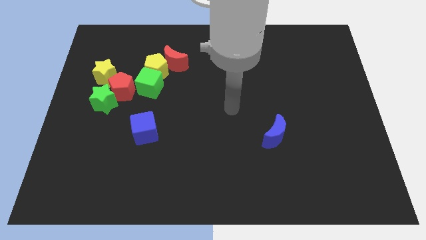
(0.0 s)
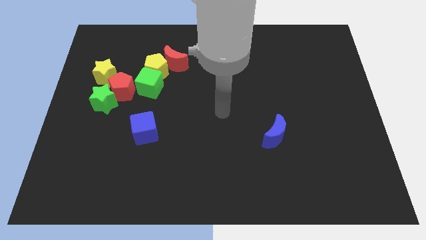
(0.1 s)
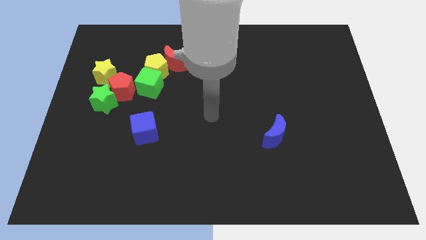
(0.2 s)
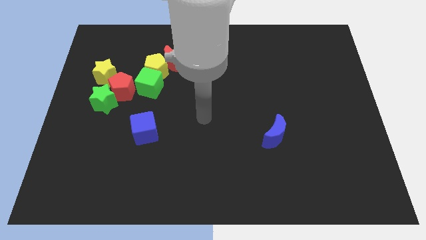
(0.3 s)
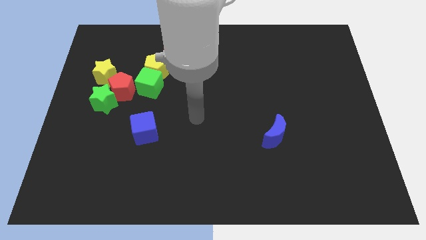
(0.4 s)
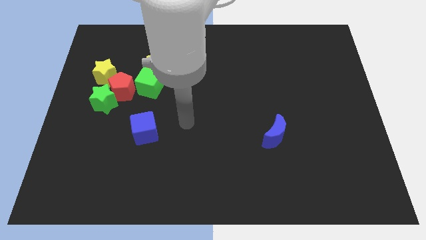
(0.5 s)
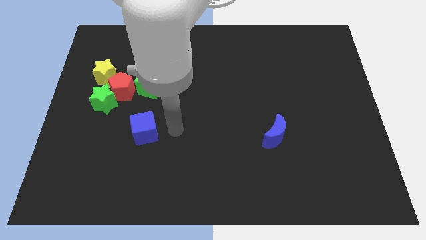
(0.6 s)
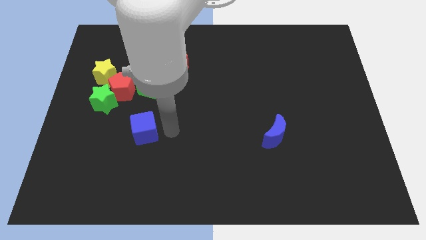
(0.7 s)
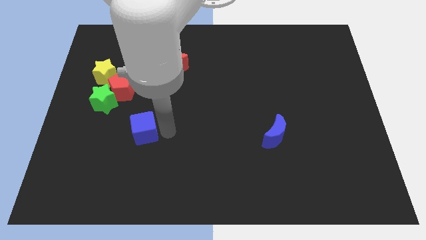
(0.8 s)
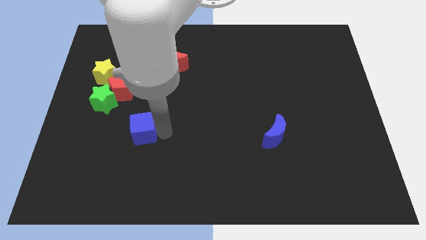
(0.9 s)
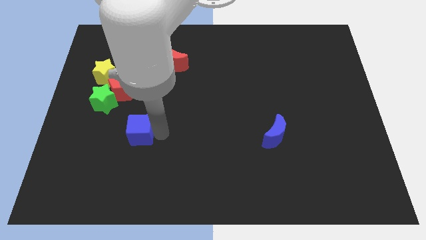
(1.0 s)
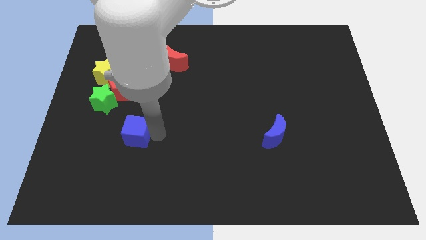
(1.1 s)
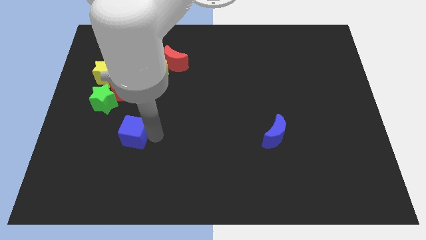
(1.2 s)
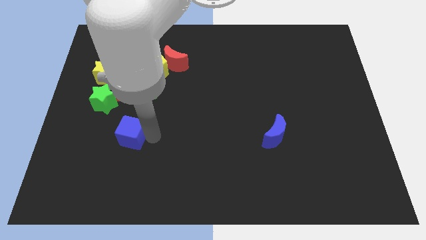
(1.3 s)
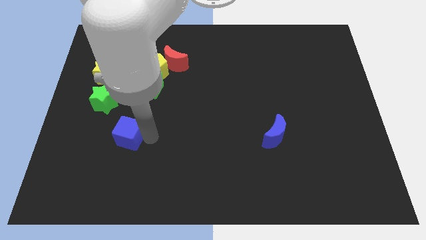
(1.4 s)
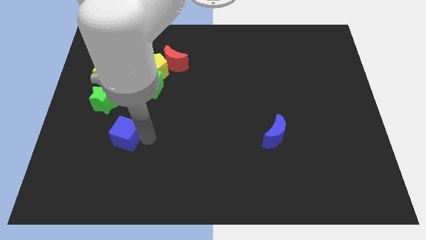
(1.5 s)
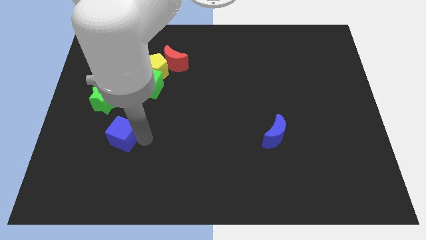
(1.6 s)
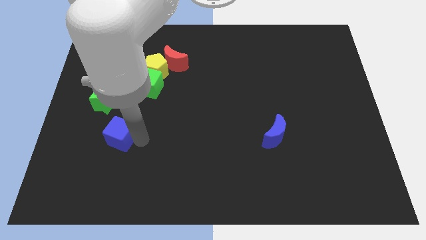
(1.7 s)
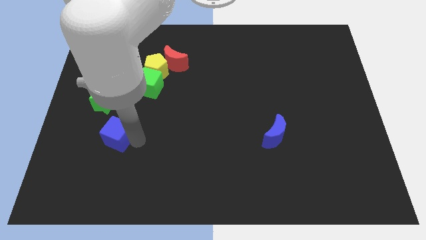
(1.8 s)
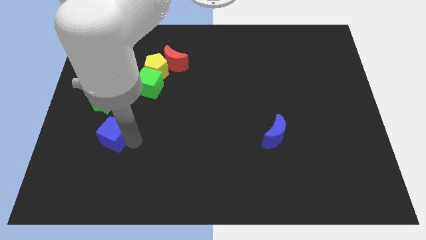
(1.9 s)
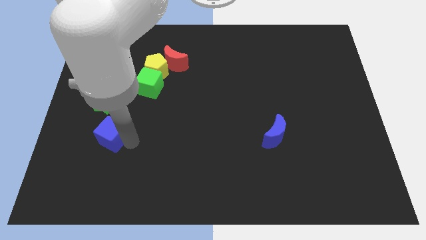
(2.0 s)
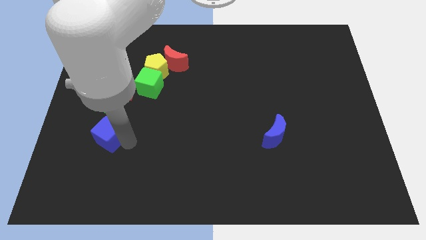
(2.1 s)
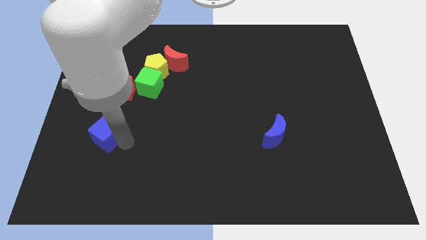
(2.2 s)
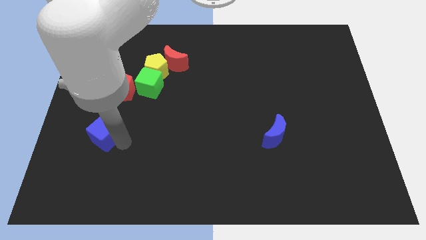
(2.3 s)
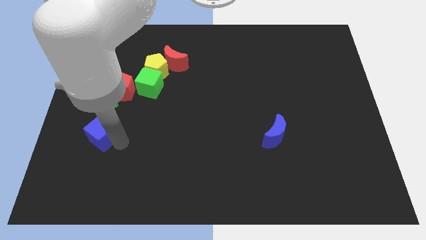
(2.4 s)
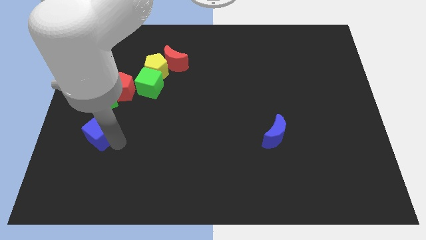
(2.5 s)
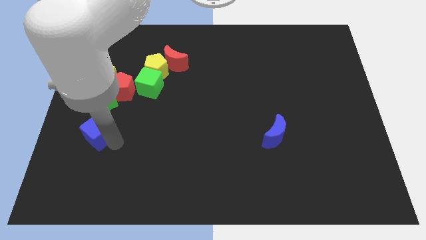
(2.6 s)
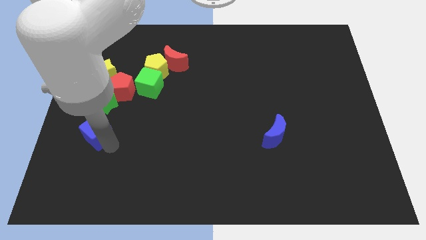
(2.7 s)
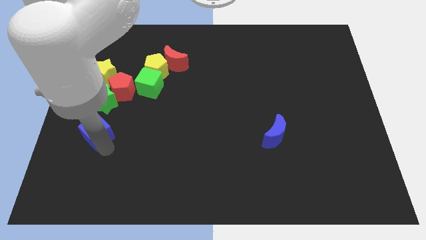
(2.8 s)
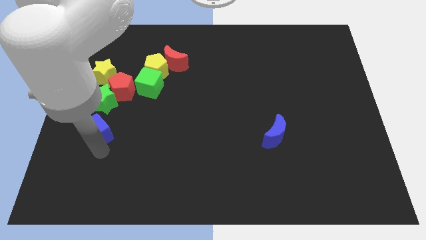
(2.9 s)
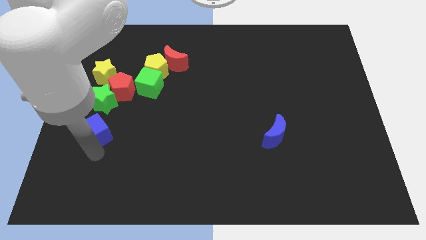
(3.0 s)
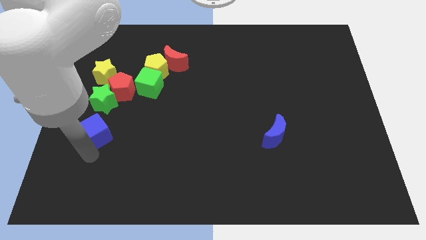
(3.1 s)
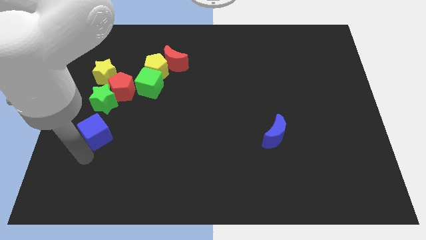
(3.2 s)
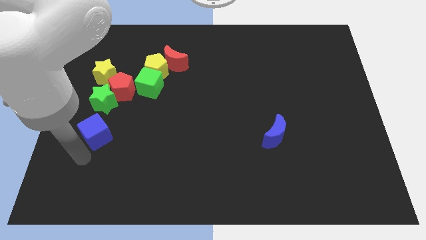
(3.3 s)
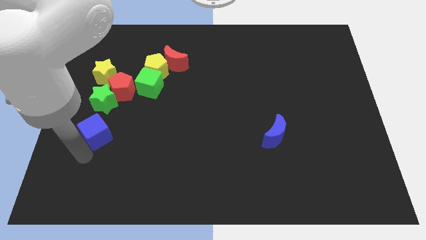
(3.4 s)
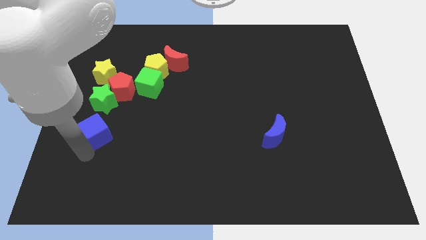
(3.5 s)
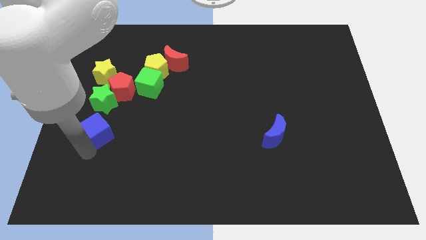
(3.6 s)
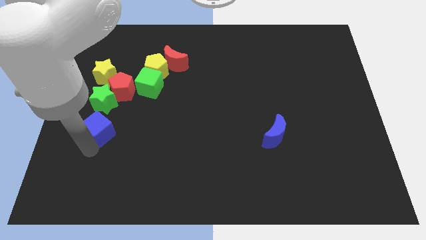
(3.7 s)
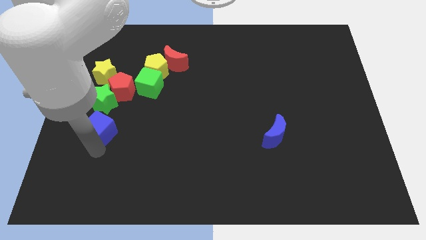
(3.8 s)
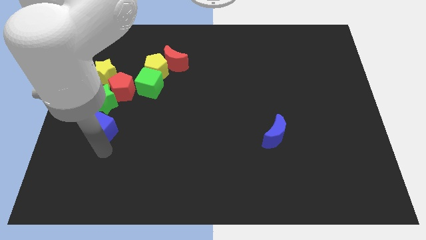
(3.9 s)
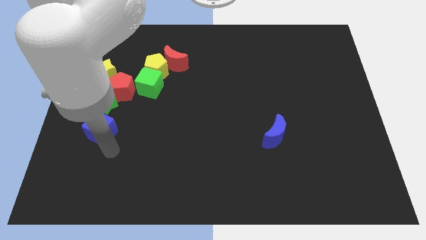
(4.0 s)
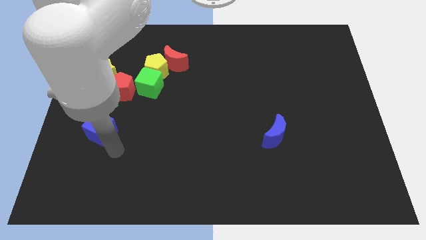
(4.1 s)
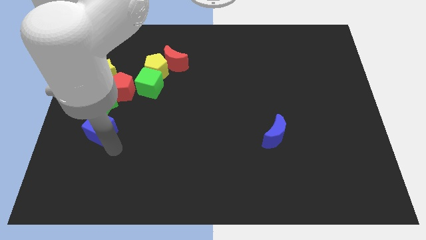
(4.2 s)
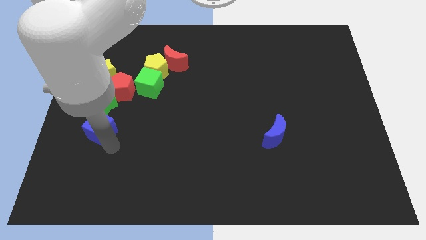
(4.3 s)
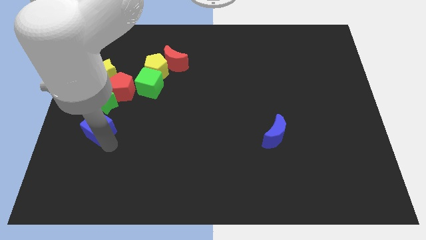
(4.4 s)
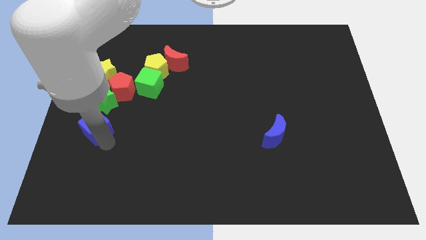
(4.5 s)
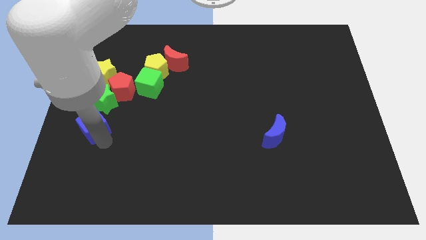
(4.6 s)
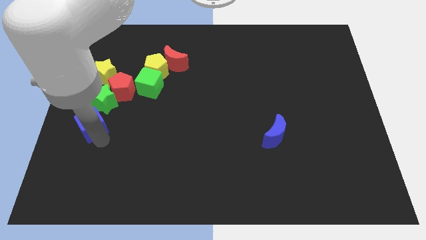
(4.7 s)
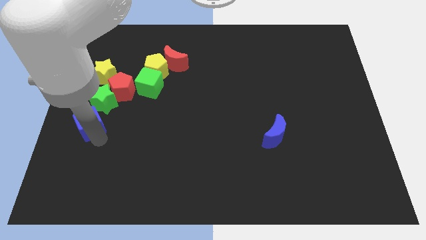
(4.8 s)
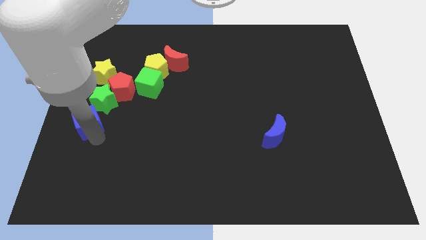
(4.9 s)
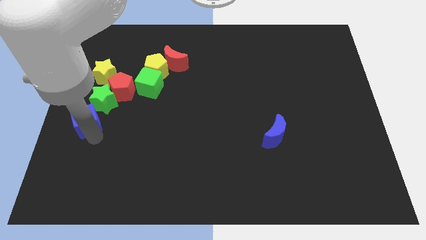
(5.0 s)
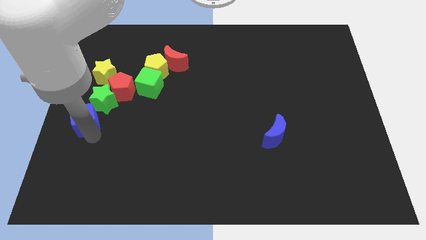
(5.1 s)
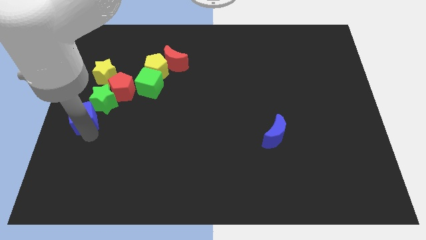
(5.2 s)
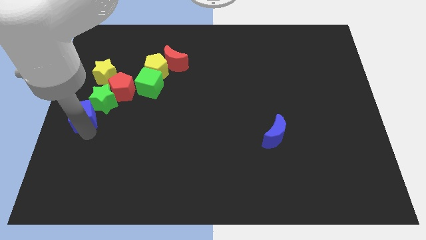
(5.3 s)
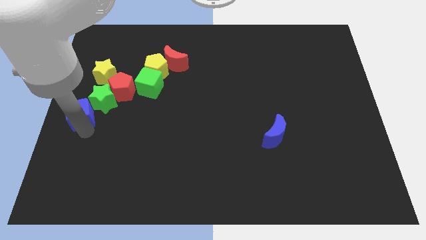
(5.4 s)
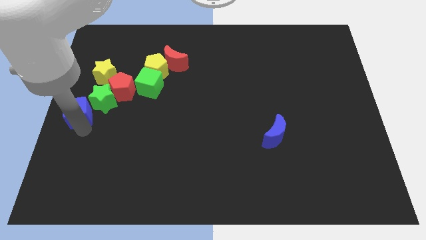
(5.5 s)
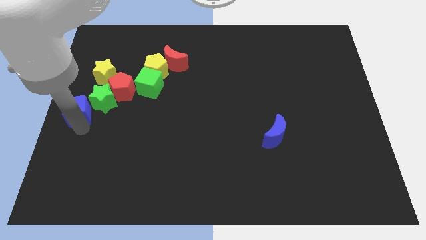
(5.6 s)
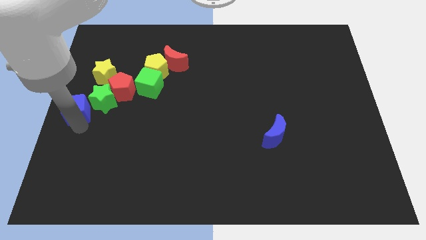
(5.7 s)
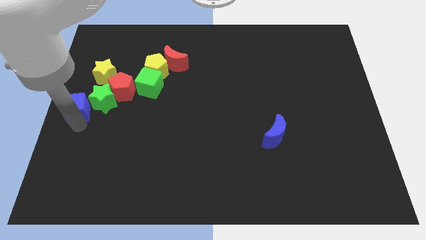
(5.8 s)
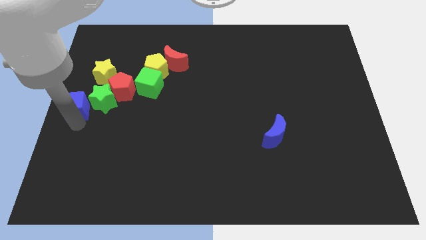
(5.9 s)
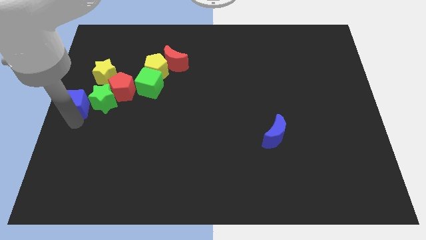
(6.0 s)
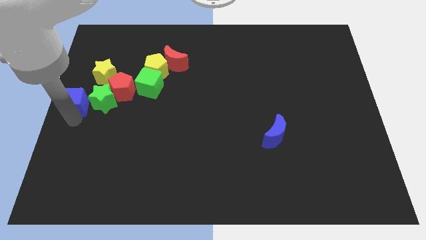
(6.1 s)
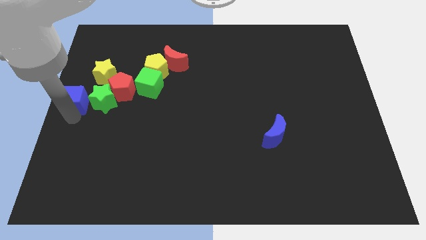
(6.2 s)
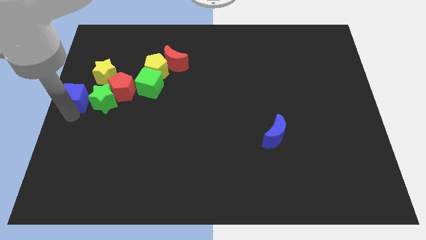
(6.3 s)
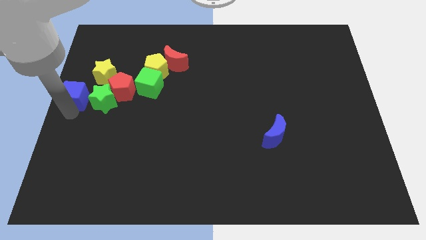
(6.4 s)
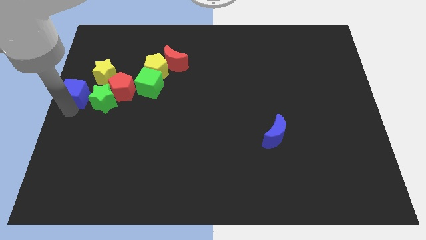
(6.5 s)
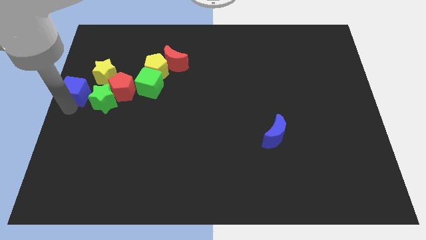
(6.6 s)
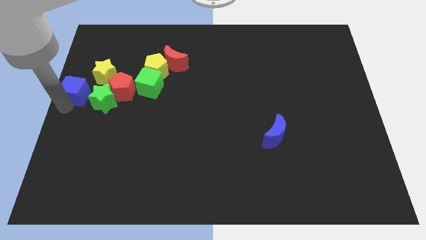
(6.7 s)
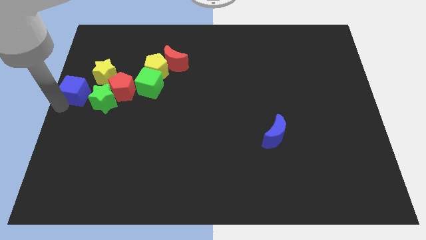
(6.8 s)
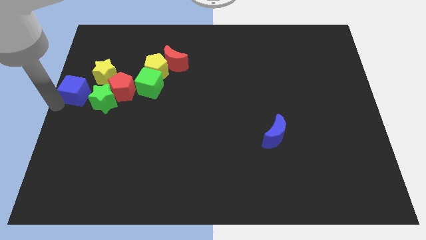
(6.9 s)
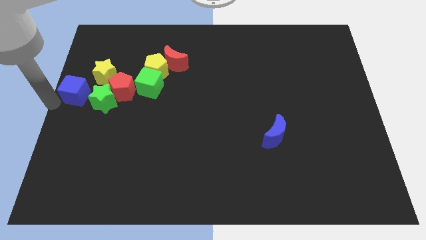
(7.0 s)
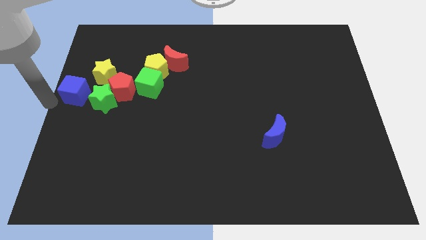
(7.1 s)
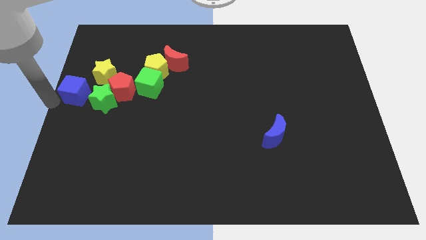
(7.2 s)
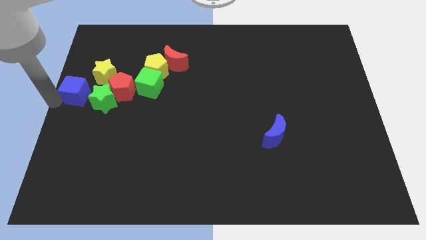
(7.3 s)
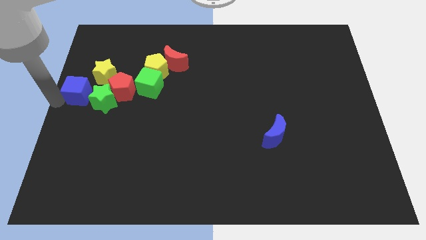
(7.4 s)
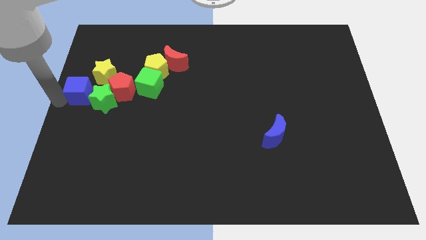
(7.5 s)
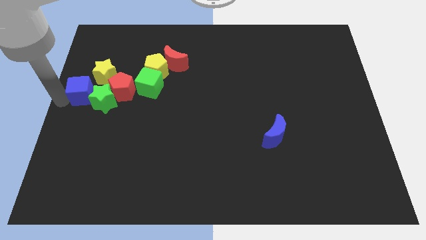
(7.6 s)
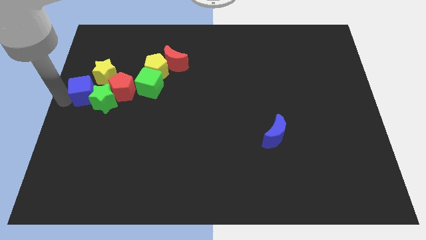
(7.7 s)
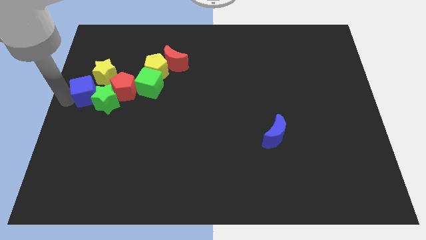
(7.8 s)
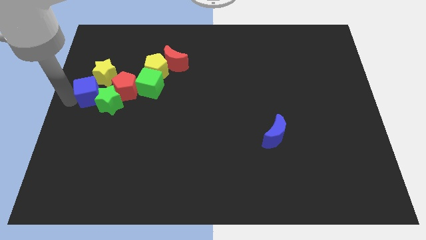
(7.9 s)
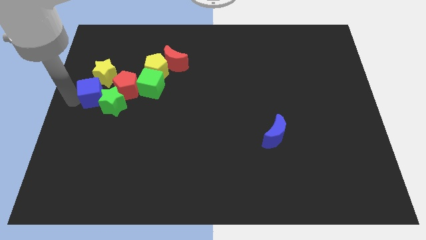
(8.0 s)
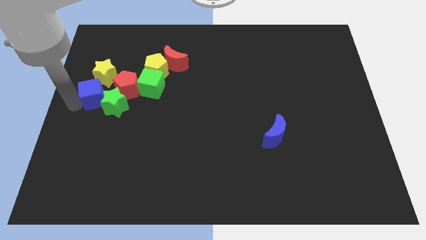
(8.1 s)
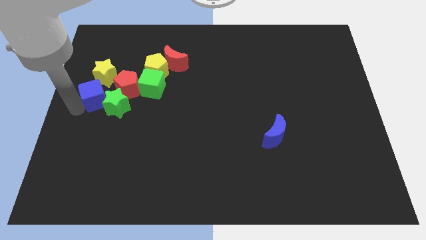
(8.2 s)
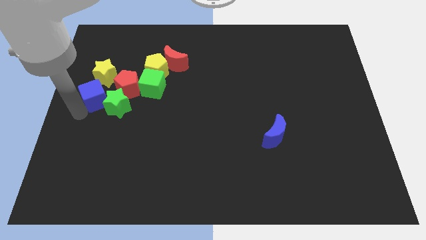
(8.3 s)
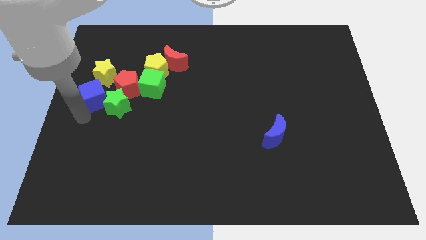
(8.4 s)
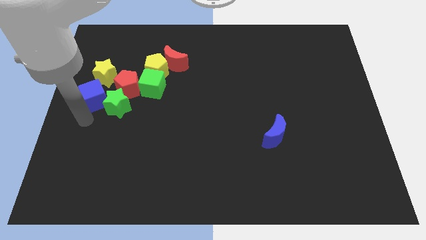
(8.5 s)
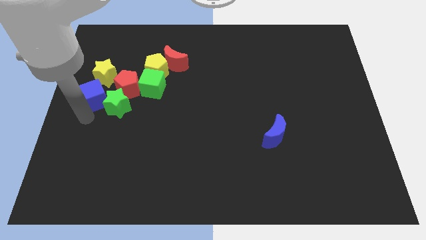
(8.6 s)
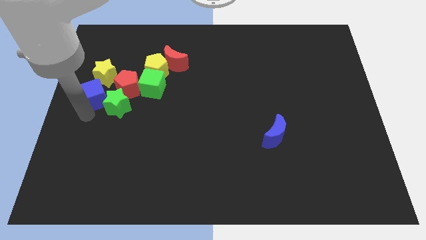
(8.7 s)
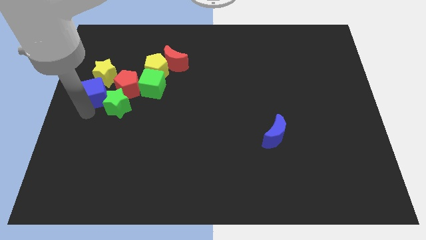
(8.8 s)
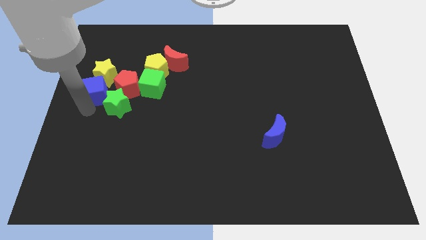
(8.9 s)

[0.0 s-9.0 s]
slide the blue cube towards the yellow star
